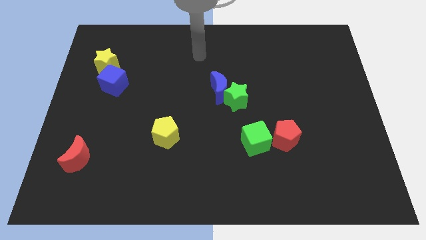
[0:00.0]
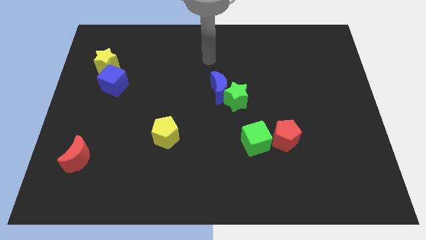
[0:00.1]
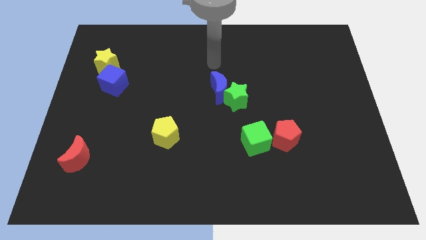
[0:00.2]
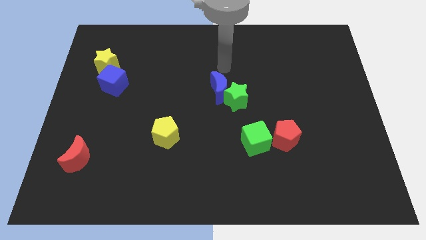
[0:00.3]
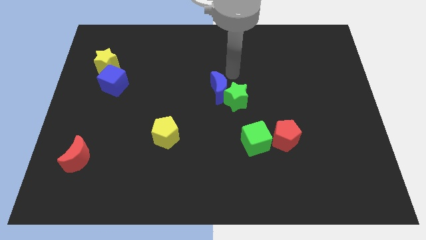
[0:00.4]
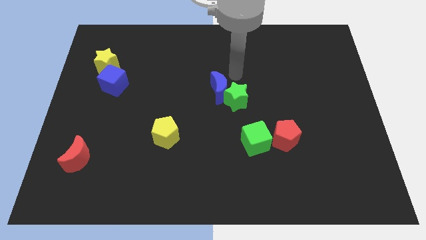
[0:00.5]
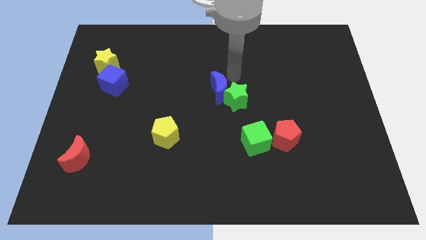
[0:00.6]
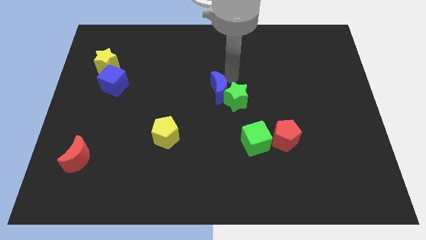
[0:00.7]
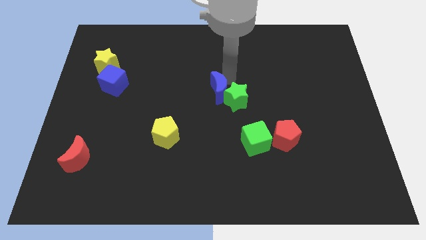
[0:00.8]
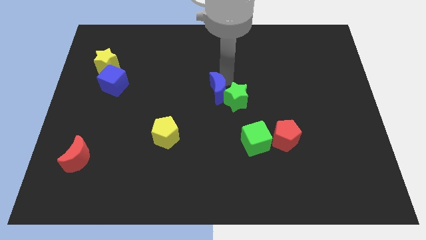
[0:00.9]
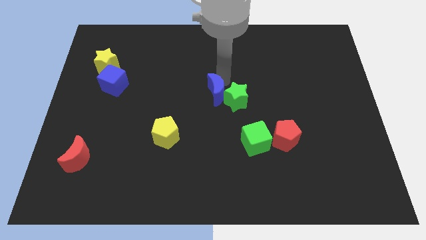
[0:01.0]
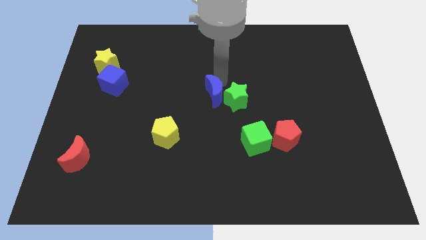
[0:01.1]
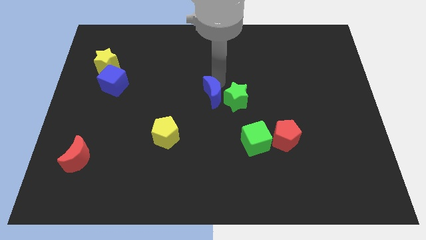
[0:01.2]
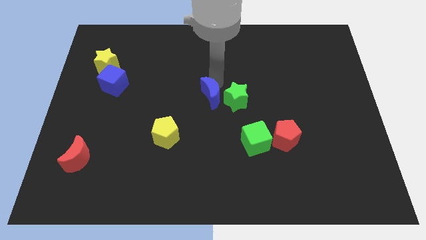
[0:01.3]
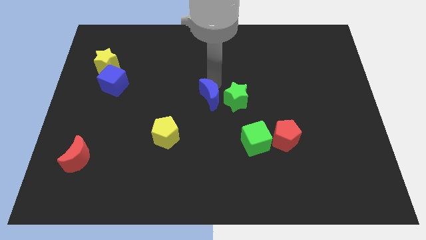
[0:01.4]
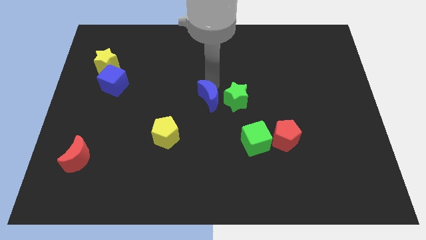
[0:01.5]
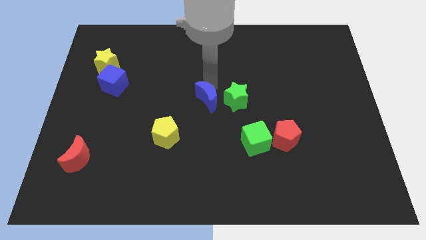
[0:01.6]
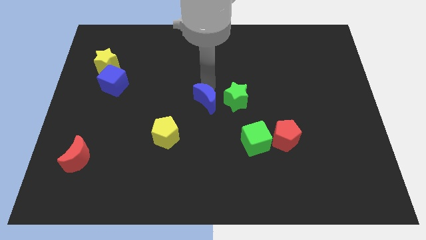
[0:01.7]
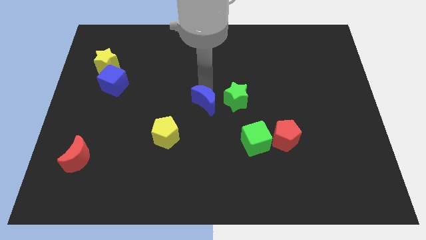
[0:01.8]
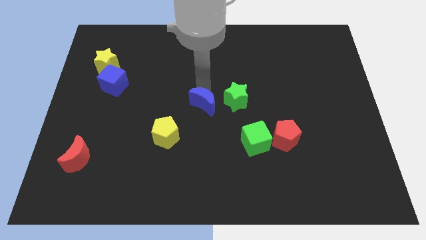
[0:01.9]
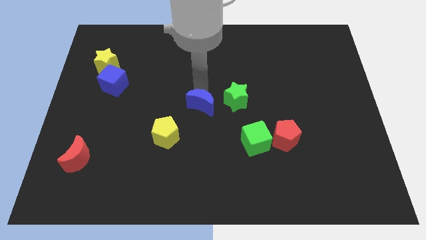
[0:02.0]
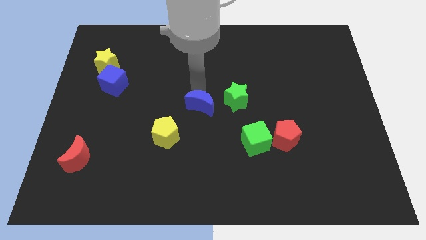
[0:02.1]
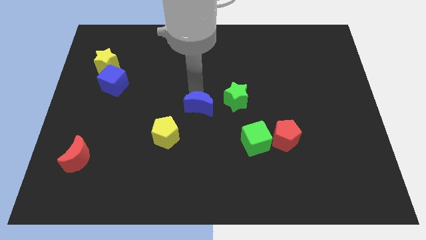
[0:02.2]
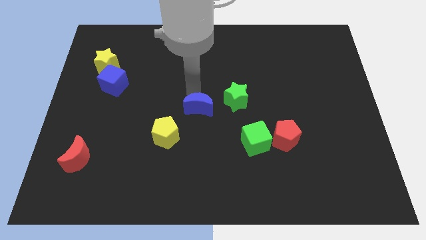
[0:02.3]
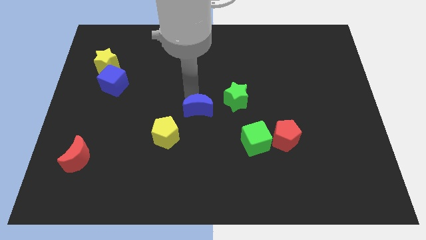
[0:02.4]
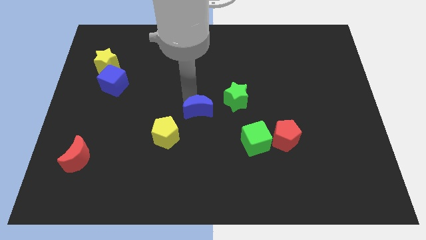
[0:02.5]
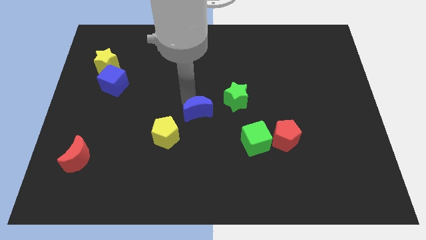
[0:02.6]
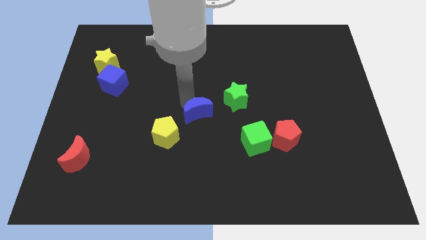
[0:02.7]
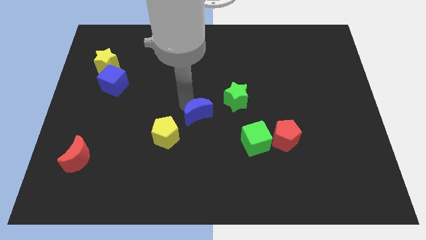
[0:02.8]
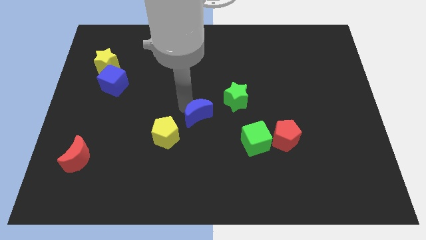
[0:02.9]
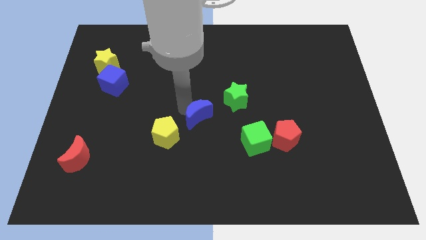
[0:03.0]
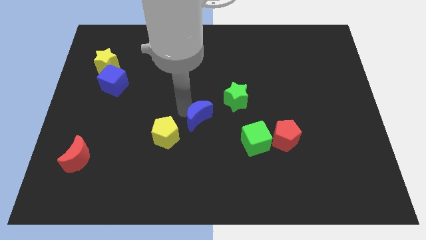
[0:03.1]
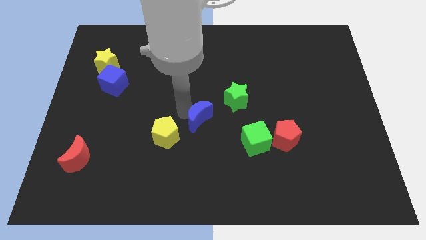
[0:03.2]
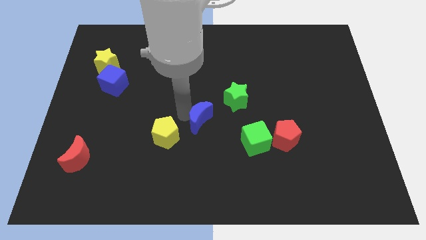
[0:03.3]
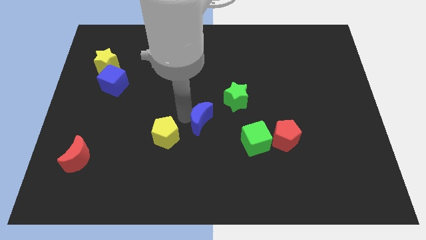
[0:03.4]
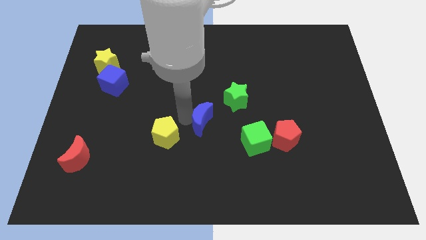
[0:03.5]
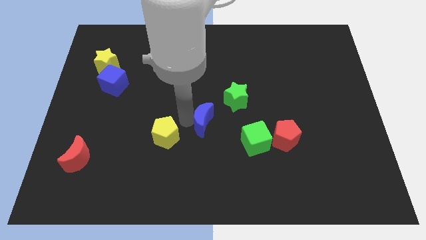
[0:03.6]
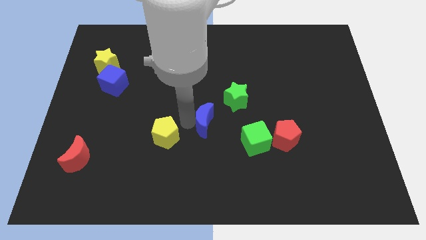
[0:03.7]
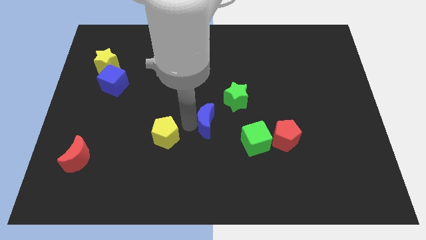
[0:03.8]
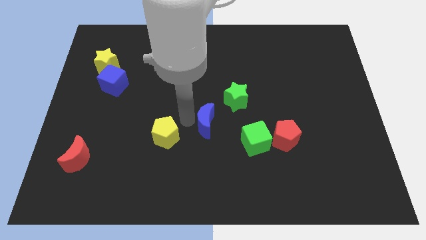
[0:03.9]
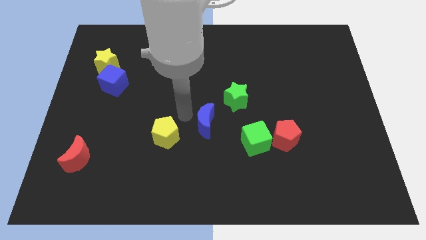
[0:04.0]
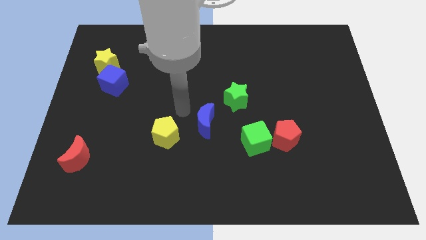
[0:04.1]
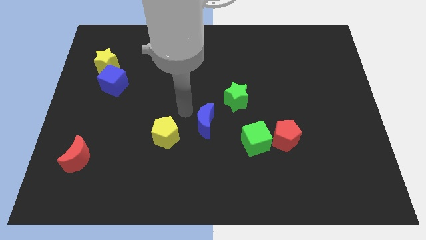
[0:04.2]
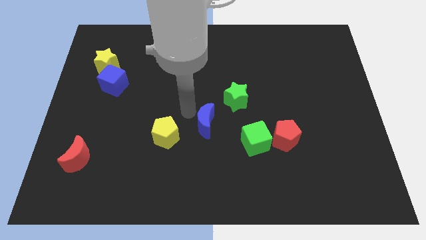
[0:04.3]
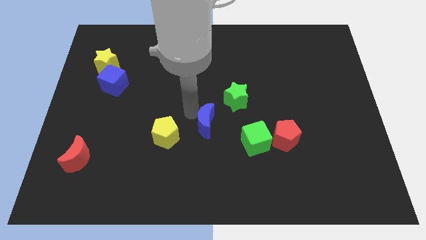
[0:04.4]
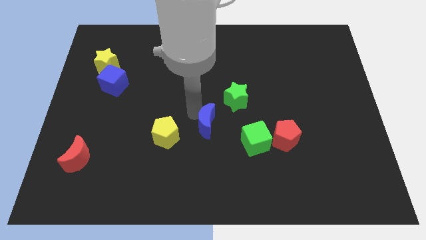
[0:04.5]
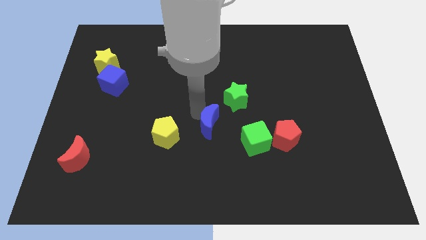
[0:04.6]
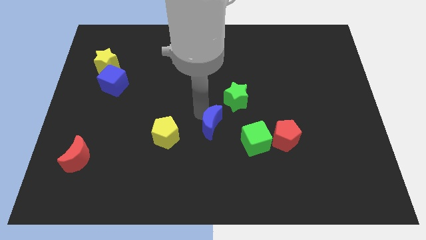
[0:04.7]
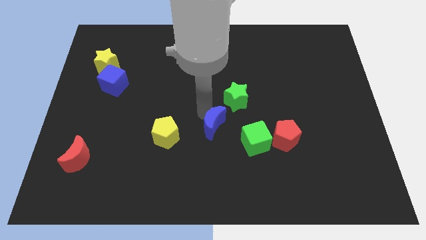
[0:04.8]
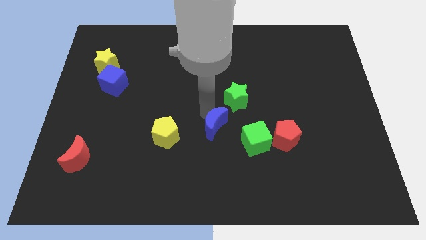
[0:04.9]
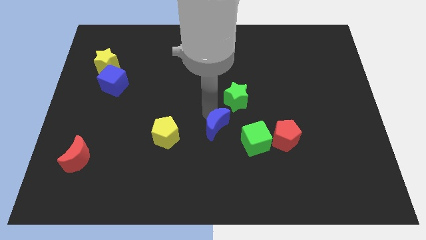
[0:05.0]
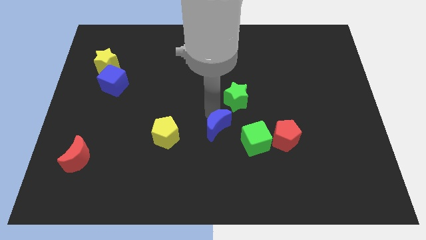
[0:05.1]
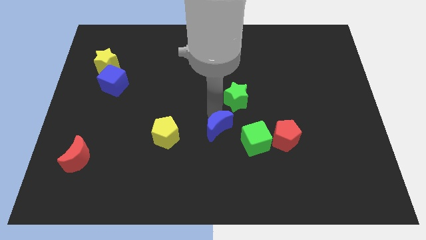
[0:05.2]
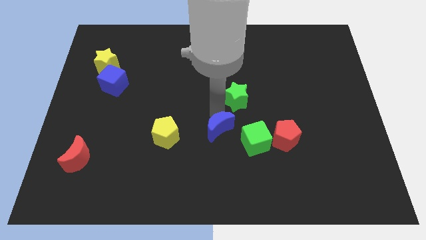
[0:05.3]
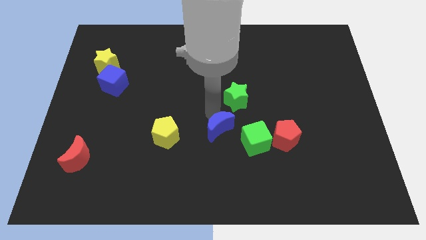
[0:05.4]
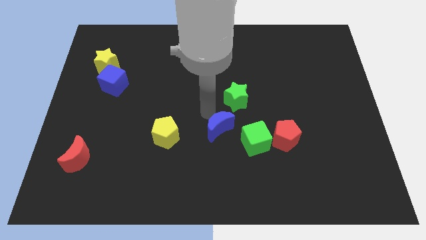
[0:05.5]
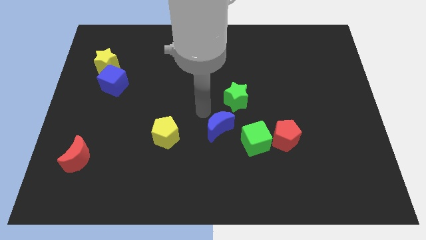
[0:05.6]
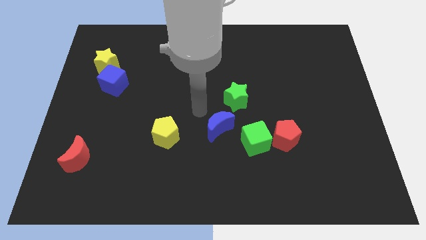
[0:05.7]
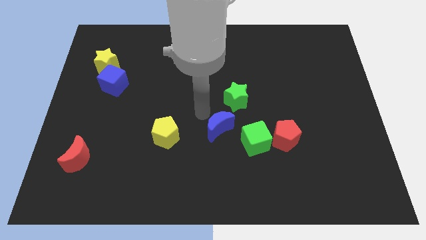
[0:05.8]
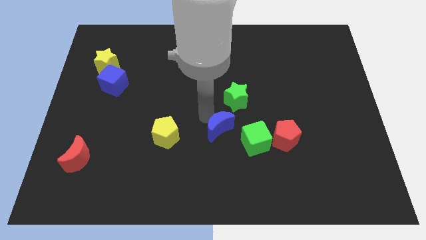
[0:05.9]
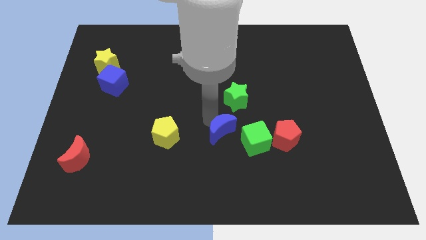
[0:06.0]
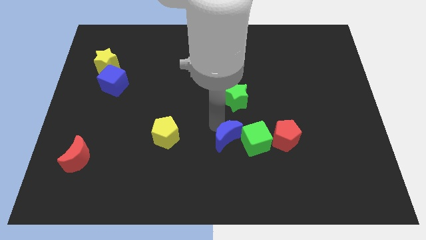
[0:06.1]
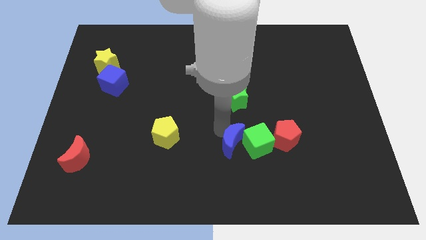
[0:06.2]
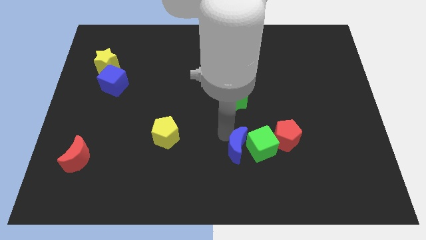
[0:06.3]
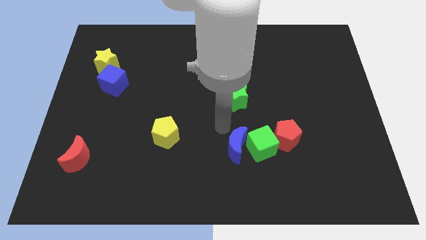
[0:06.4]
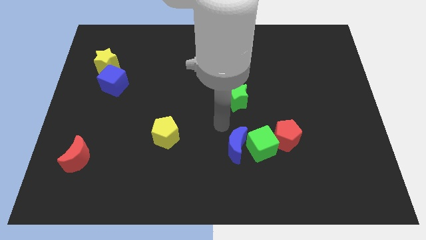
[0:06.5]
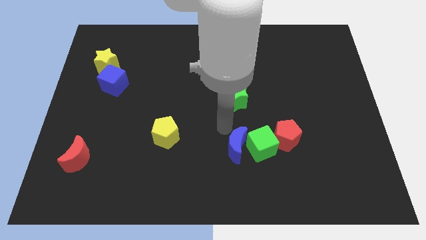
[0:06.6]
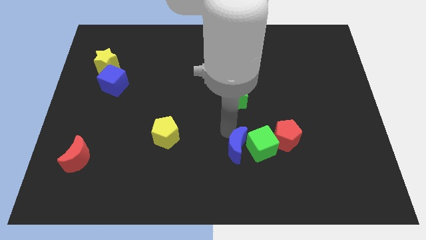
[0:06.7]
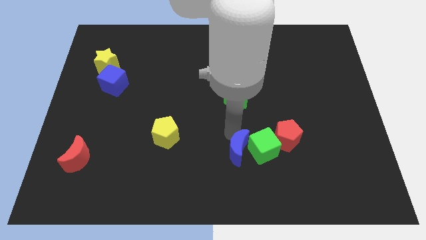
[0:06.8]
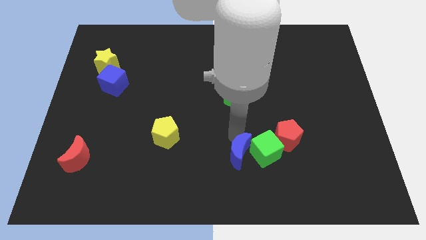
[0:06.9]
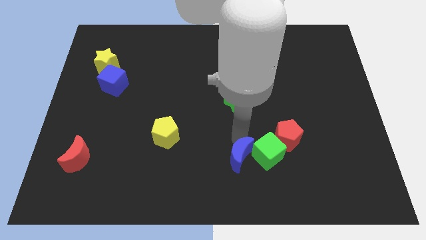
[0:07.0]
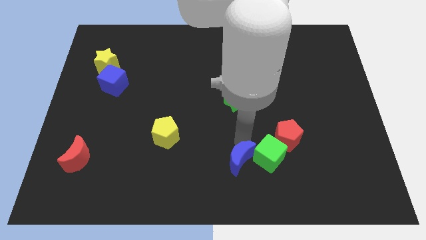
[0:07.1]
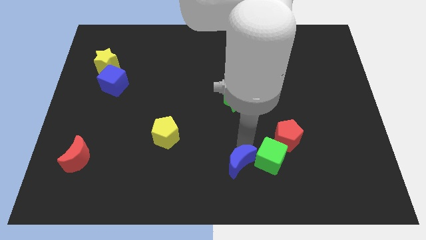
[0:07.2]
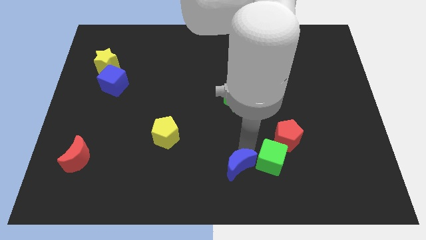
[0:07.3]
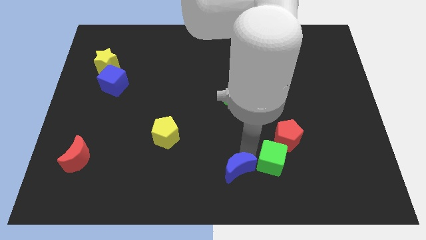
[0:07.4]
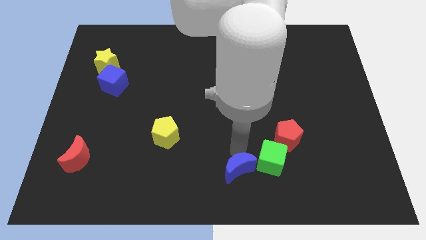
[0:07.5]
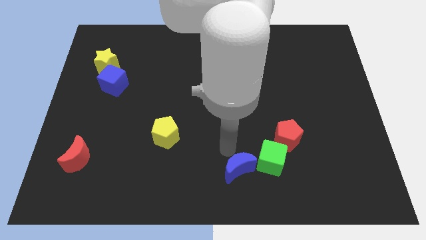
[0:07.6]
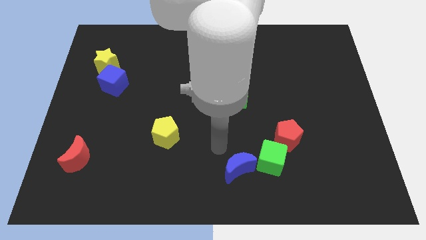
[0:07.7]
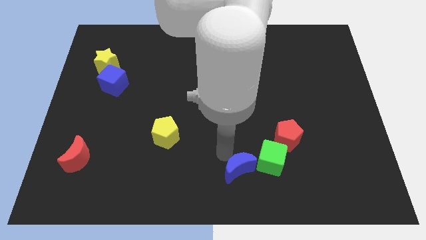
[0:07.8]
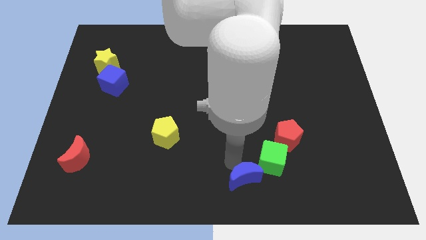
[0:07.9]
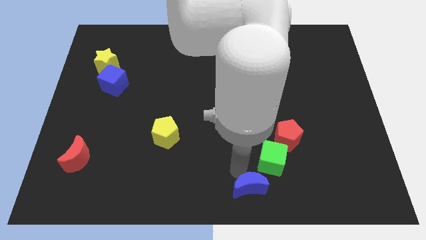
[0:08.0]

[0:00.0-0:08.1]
push the blue moon below the green cube
